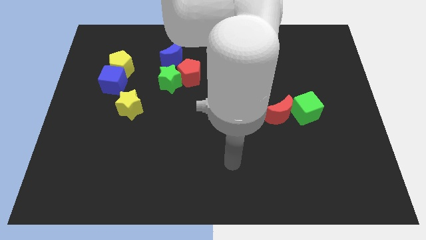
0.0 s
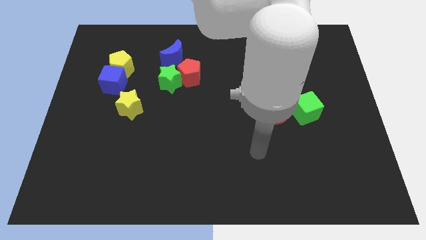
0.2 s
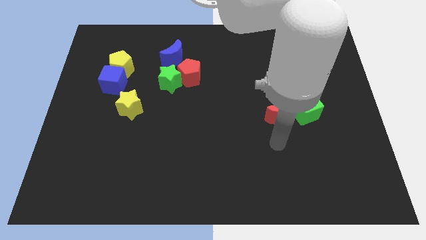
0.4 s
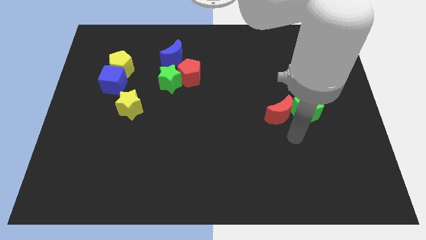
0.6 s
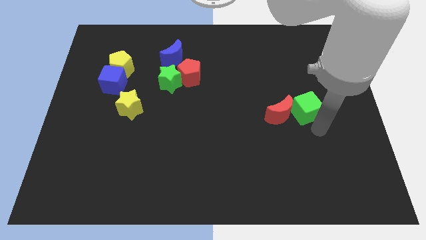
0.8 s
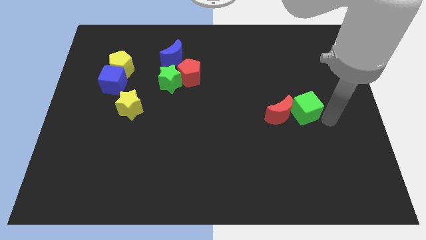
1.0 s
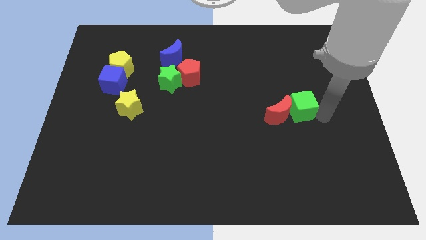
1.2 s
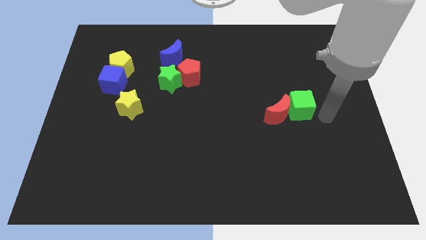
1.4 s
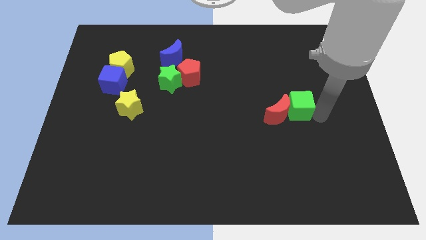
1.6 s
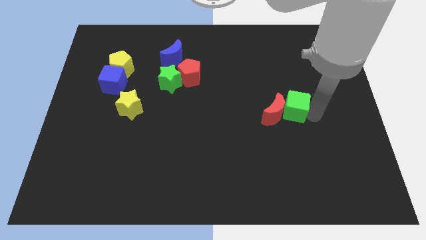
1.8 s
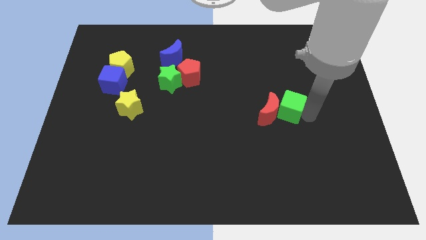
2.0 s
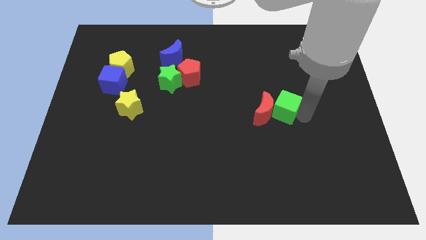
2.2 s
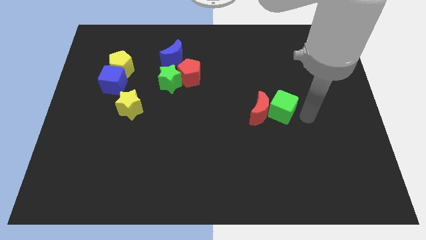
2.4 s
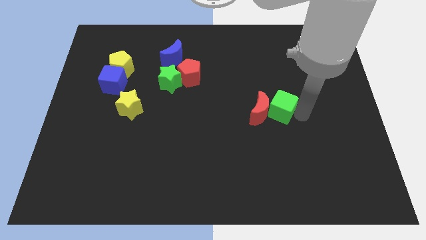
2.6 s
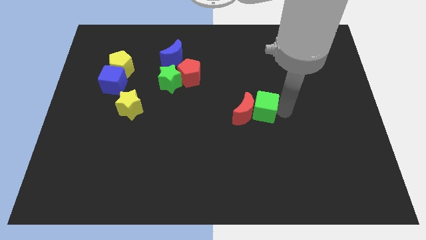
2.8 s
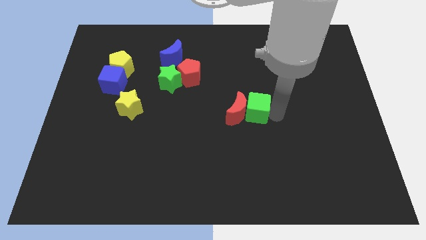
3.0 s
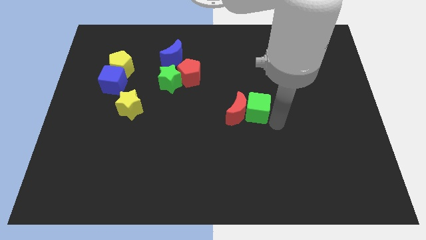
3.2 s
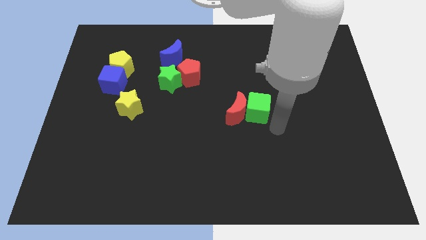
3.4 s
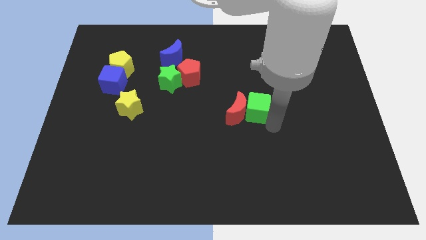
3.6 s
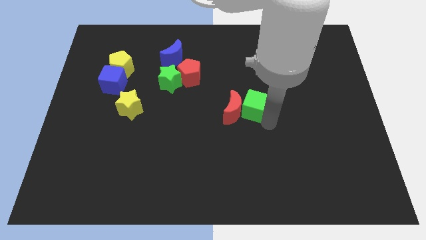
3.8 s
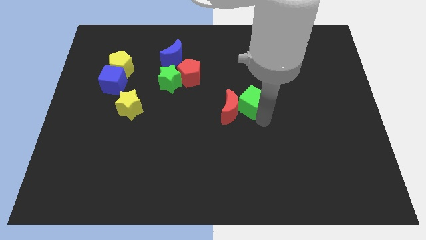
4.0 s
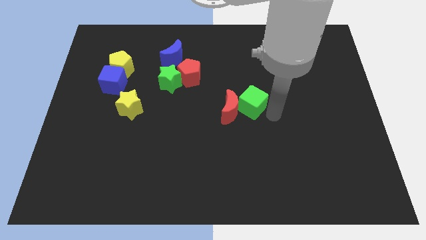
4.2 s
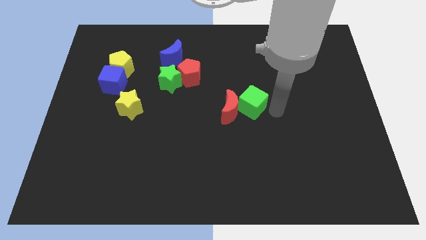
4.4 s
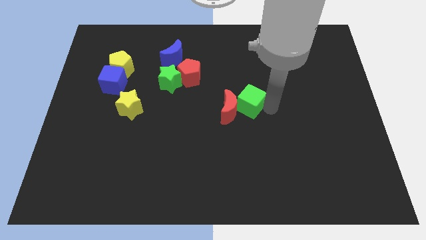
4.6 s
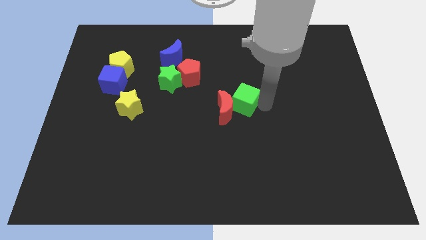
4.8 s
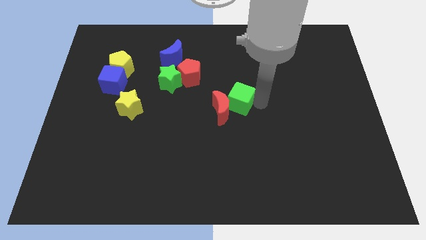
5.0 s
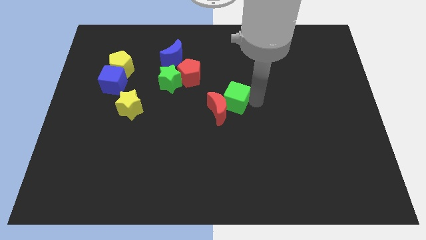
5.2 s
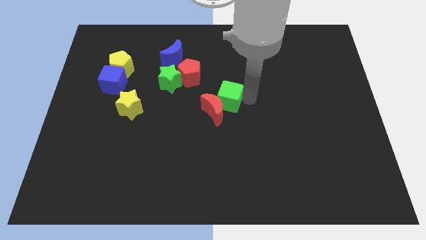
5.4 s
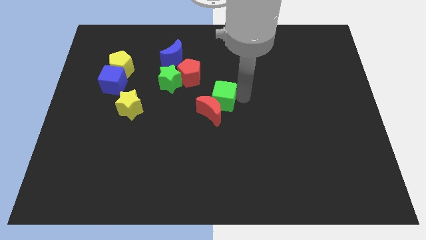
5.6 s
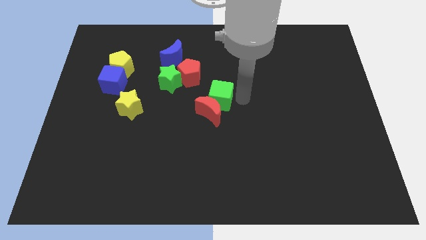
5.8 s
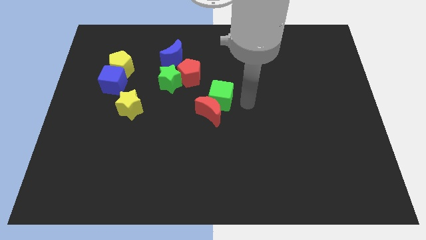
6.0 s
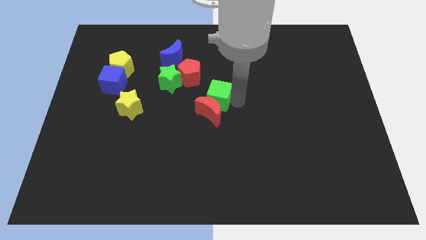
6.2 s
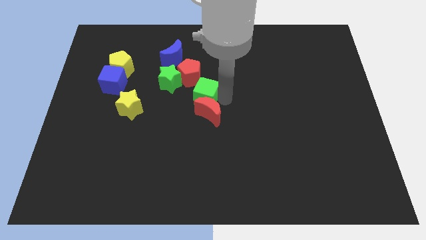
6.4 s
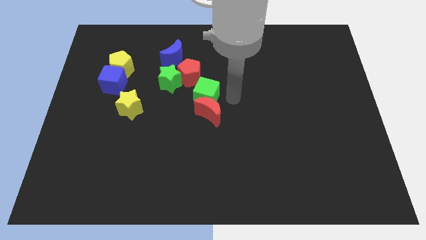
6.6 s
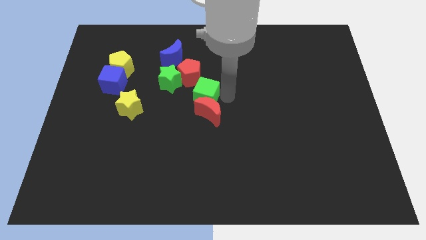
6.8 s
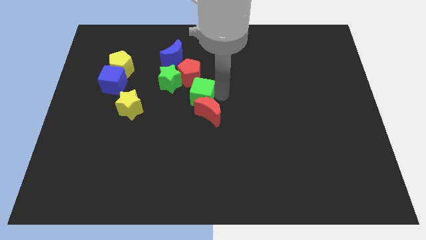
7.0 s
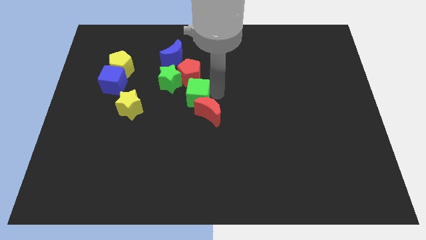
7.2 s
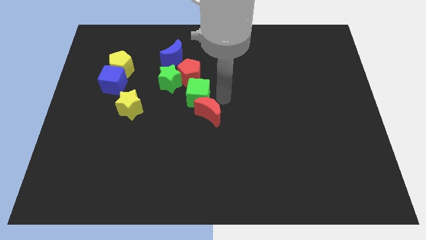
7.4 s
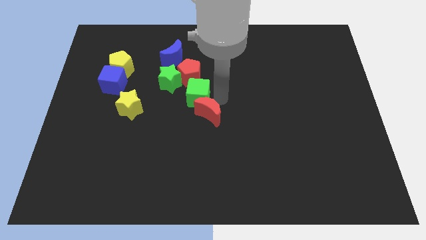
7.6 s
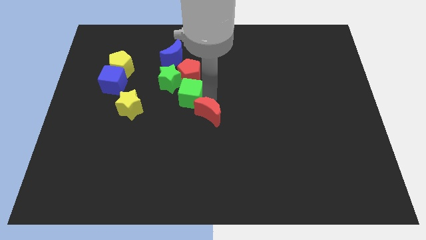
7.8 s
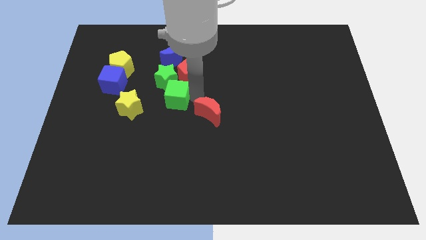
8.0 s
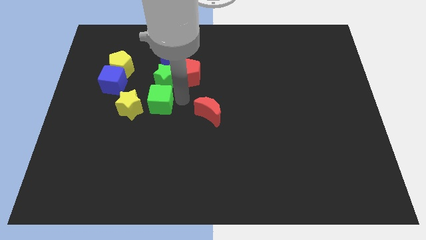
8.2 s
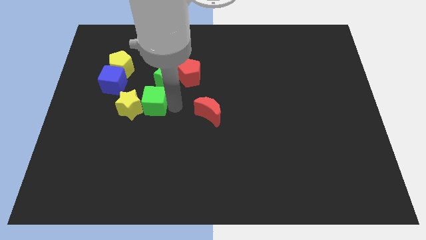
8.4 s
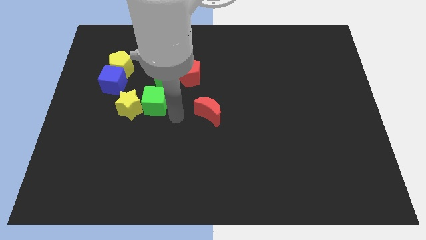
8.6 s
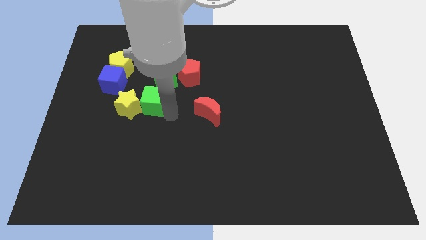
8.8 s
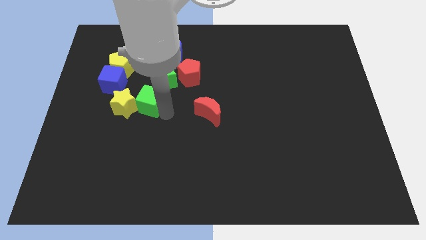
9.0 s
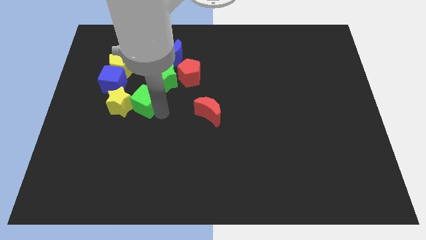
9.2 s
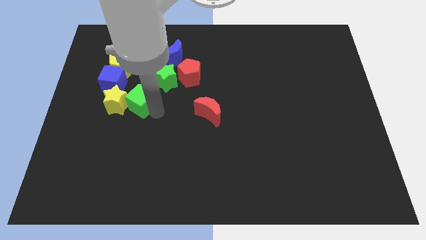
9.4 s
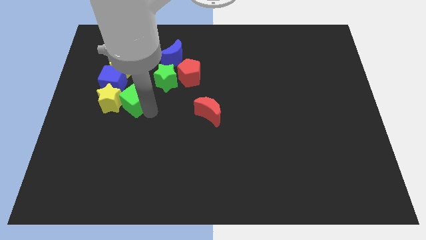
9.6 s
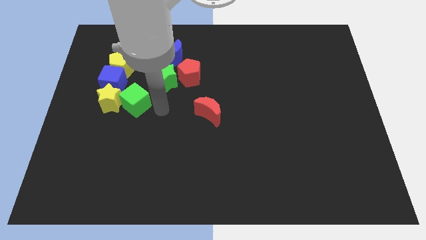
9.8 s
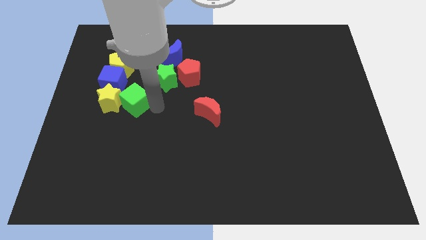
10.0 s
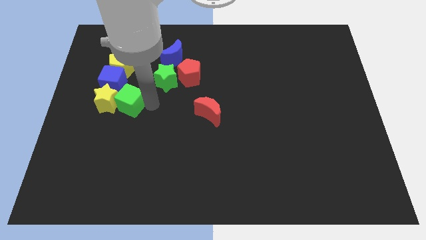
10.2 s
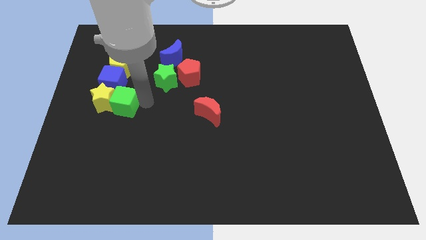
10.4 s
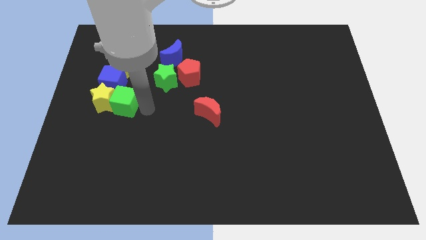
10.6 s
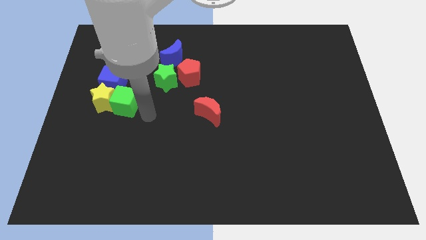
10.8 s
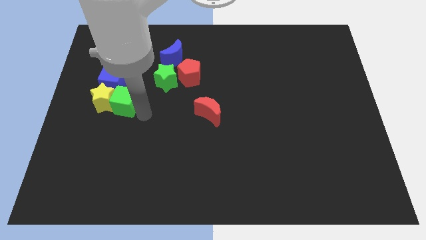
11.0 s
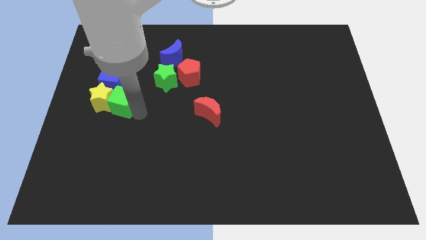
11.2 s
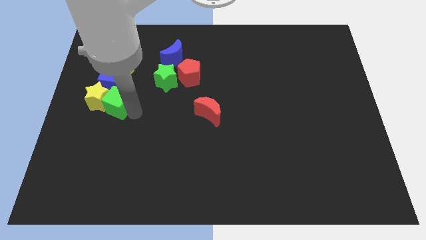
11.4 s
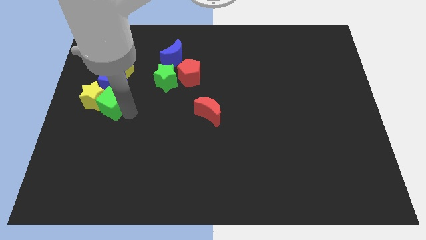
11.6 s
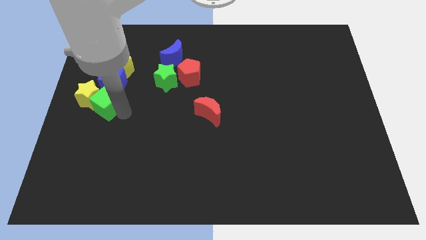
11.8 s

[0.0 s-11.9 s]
move the green cube to the center left
